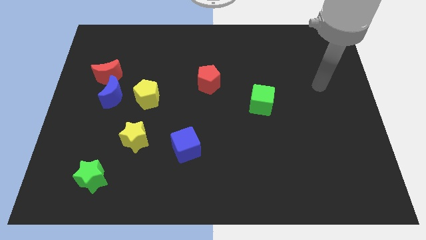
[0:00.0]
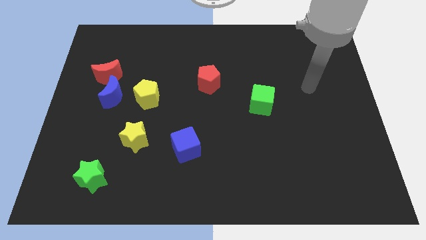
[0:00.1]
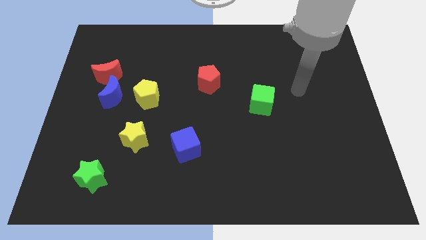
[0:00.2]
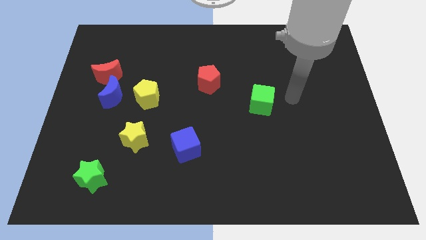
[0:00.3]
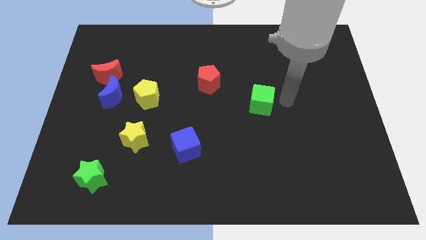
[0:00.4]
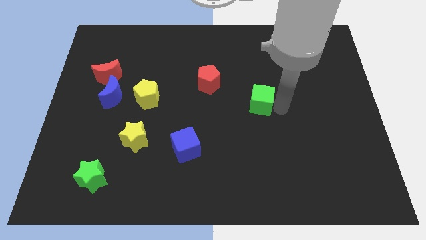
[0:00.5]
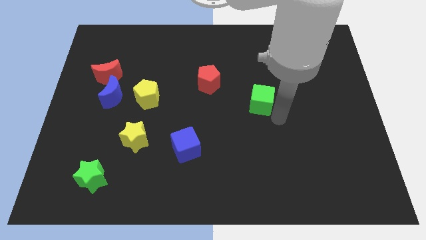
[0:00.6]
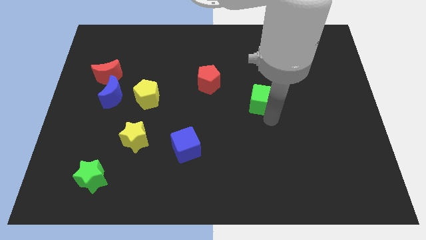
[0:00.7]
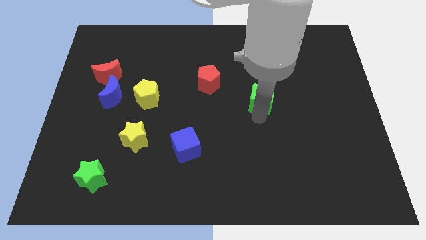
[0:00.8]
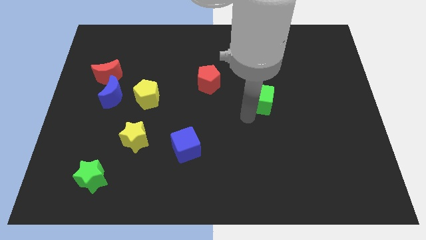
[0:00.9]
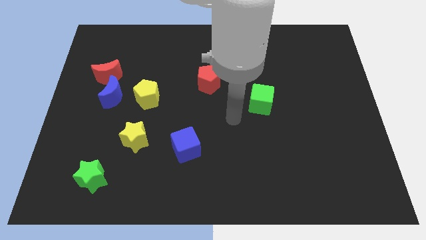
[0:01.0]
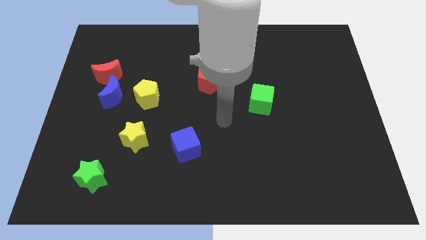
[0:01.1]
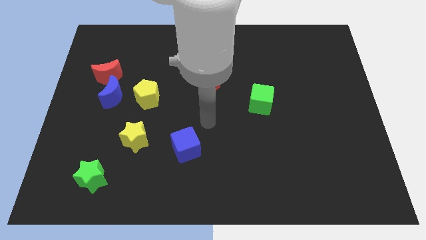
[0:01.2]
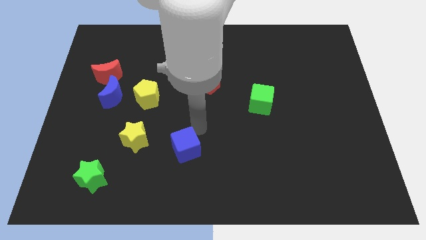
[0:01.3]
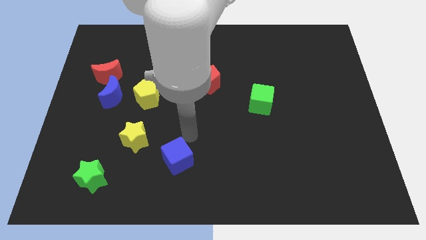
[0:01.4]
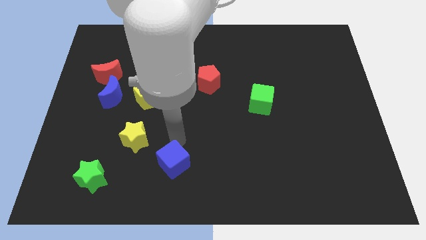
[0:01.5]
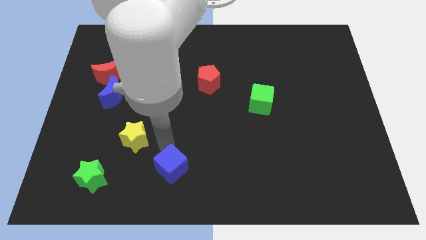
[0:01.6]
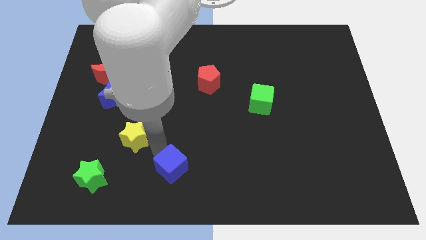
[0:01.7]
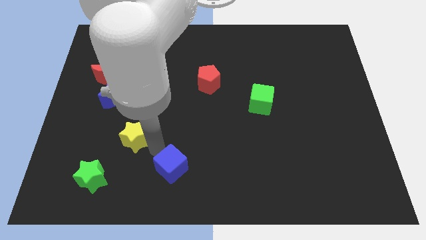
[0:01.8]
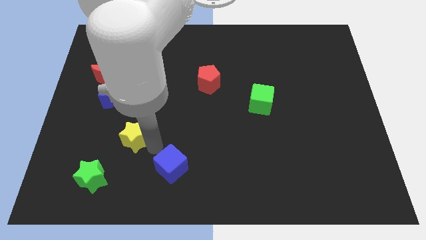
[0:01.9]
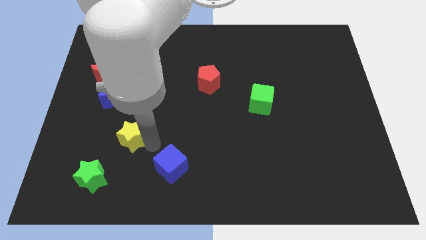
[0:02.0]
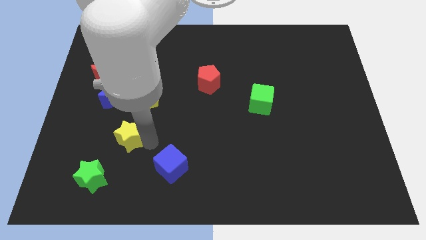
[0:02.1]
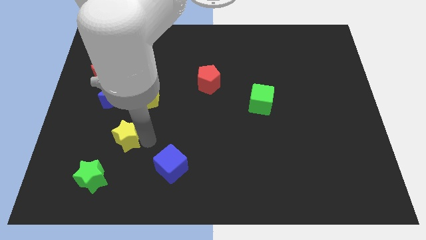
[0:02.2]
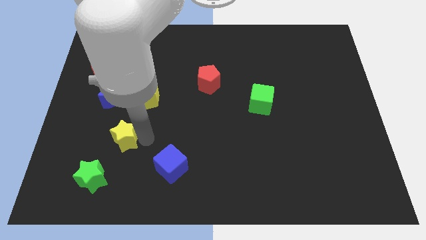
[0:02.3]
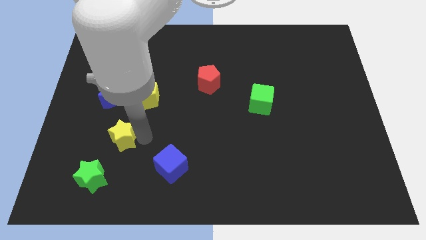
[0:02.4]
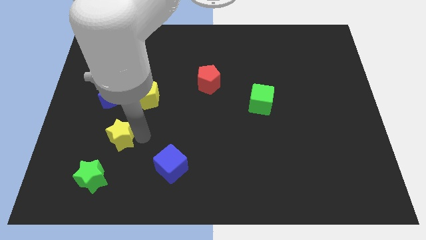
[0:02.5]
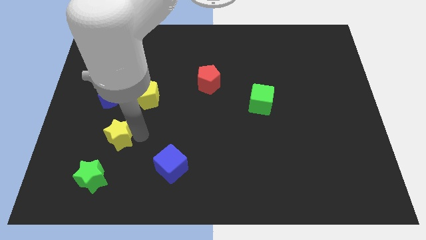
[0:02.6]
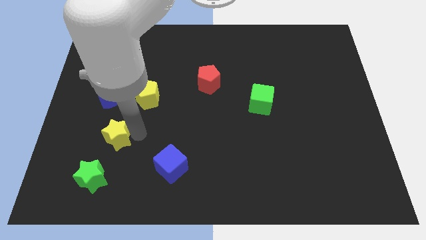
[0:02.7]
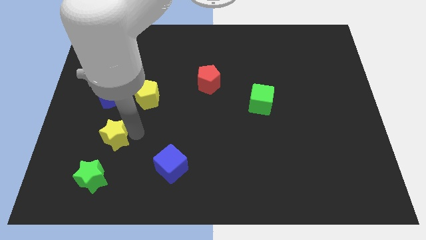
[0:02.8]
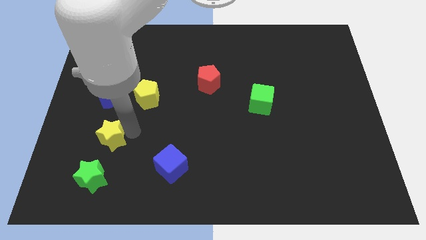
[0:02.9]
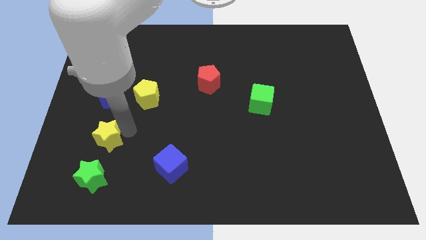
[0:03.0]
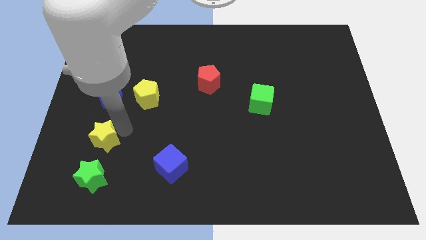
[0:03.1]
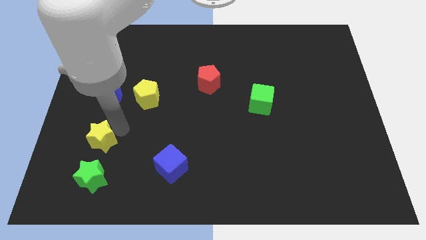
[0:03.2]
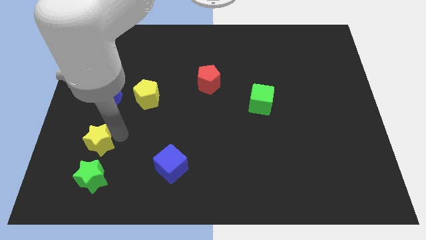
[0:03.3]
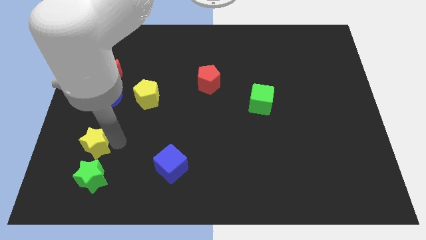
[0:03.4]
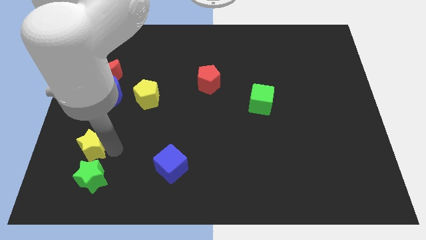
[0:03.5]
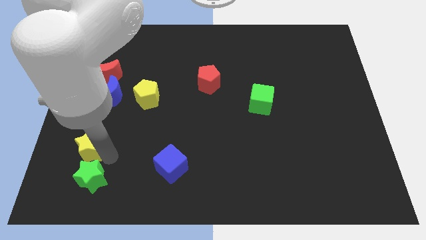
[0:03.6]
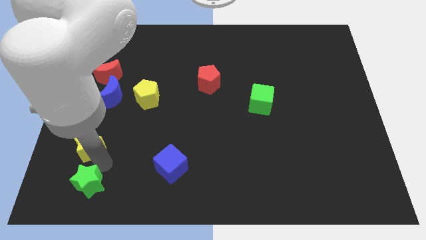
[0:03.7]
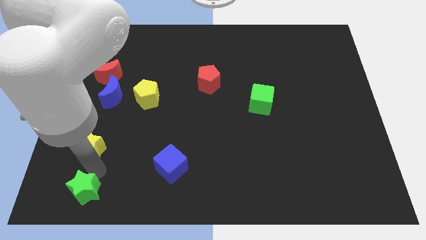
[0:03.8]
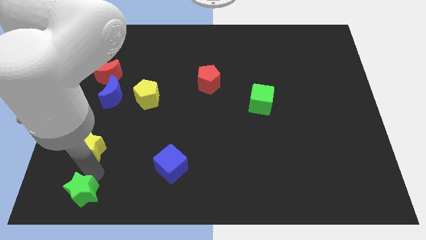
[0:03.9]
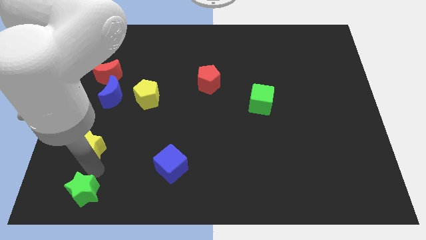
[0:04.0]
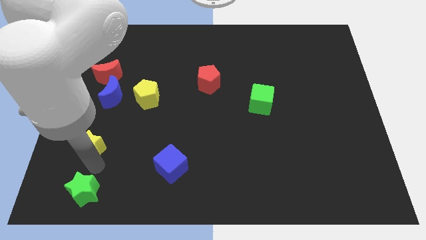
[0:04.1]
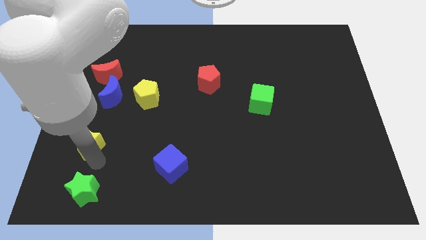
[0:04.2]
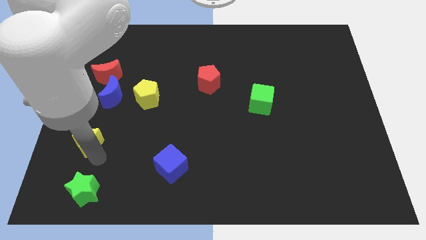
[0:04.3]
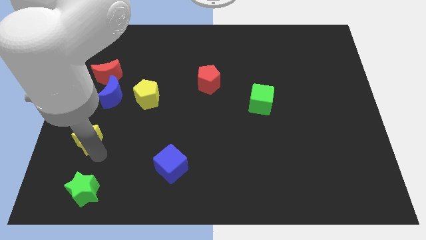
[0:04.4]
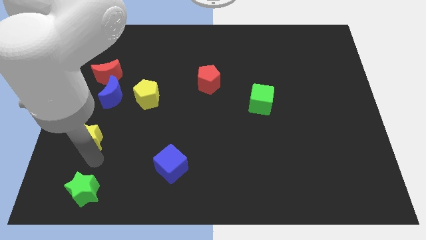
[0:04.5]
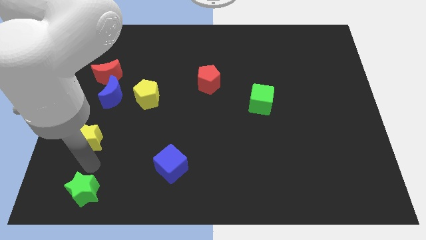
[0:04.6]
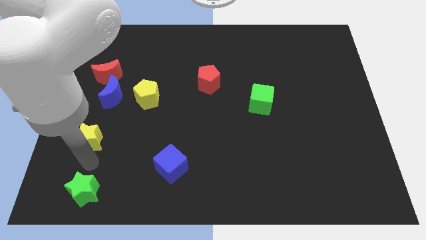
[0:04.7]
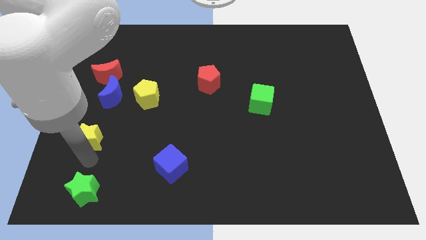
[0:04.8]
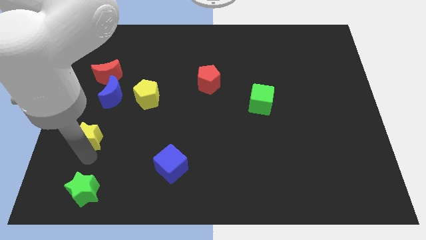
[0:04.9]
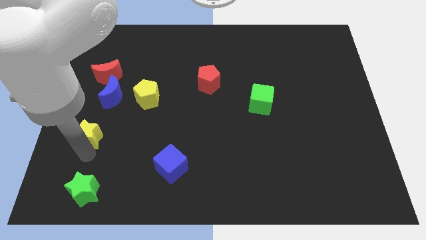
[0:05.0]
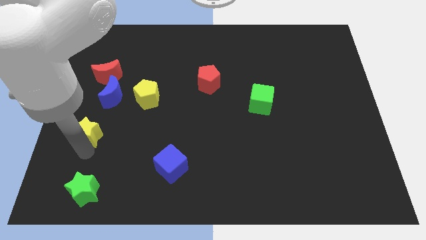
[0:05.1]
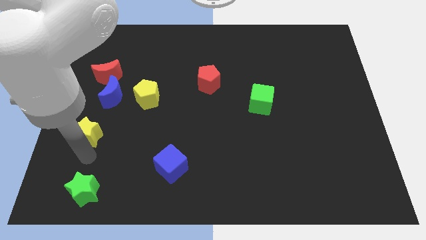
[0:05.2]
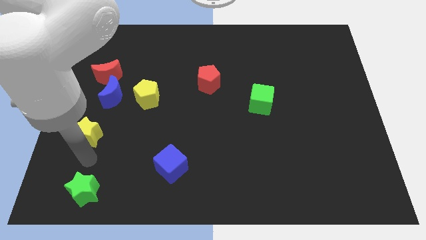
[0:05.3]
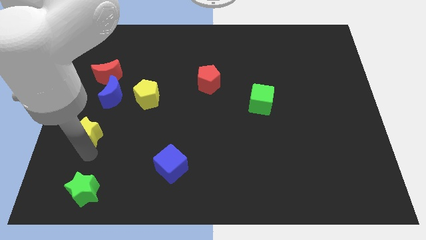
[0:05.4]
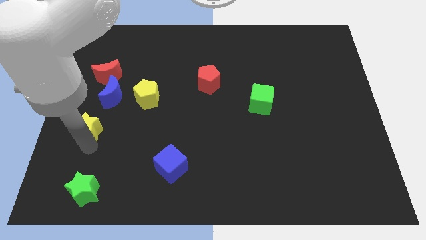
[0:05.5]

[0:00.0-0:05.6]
slide the yellow star to the left side
